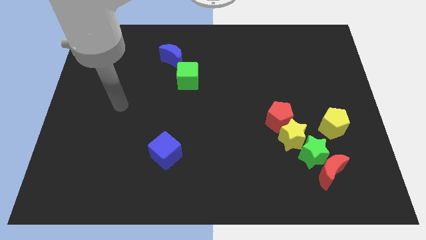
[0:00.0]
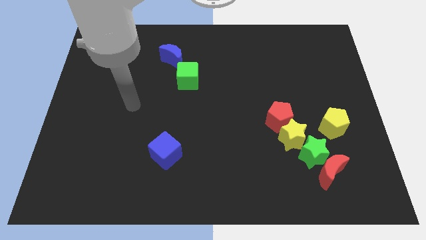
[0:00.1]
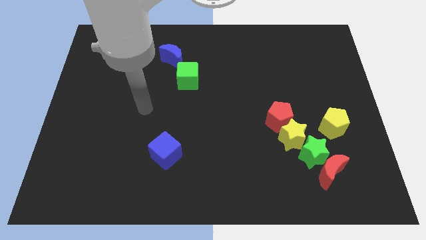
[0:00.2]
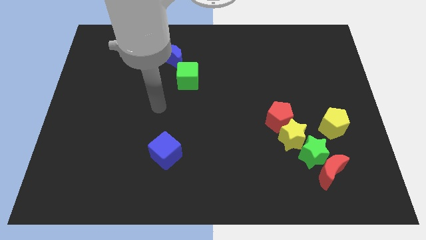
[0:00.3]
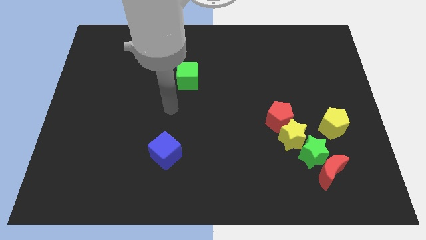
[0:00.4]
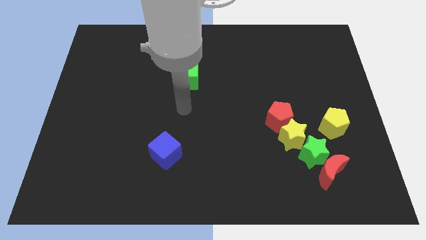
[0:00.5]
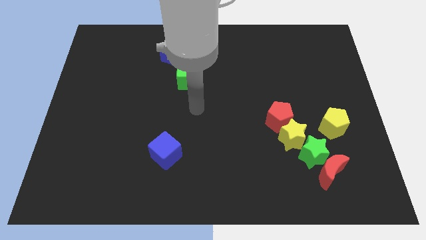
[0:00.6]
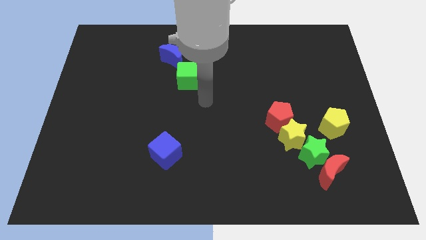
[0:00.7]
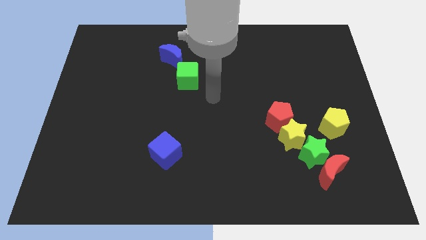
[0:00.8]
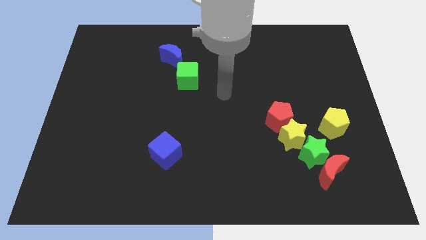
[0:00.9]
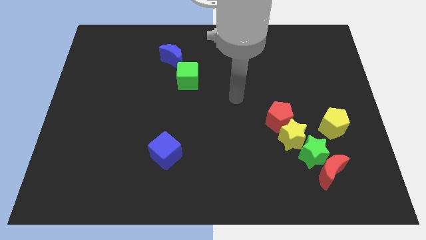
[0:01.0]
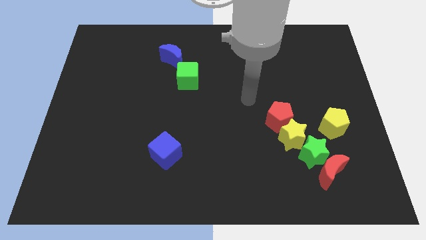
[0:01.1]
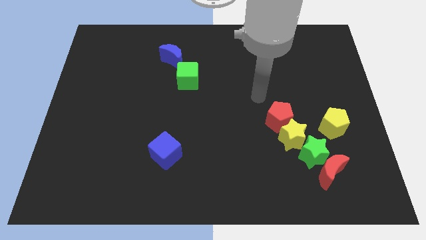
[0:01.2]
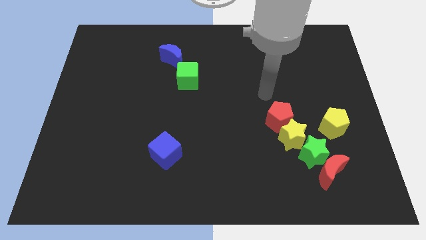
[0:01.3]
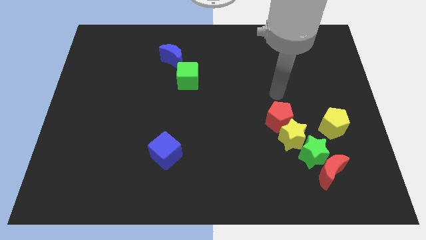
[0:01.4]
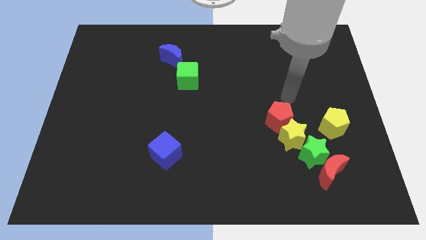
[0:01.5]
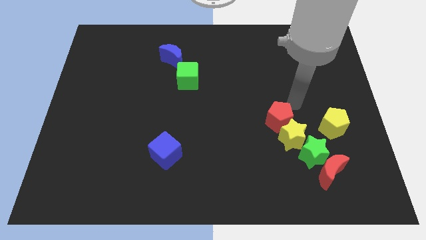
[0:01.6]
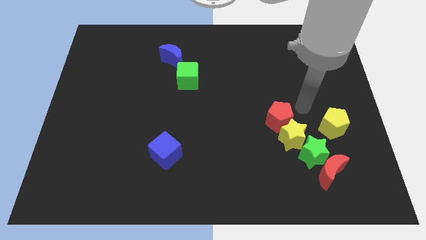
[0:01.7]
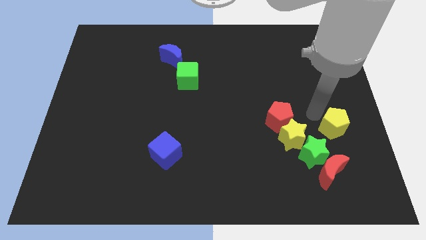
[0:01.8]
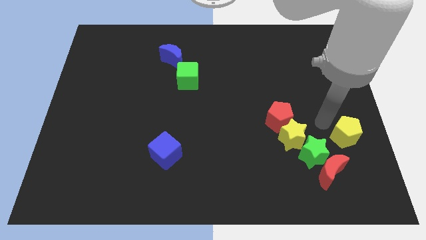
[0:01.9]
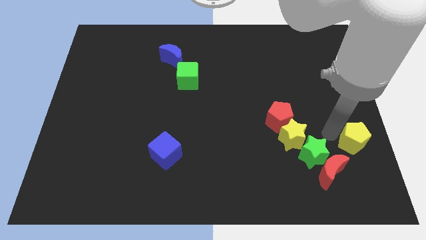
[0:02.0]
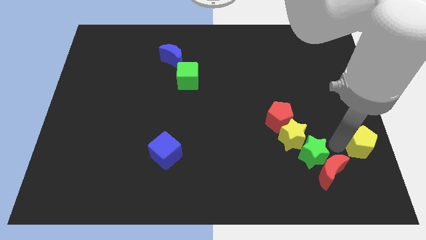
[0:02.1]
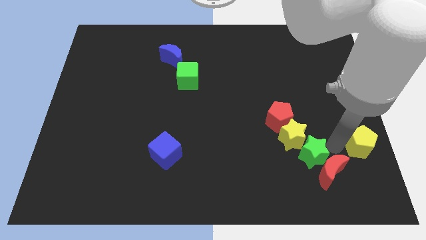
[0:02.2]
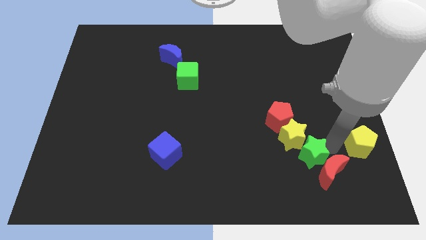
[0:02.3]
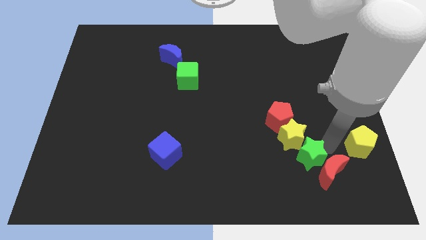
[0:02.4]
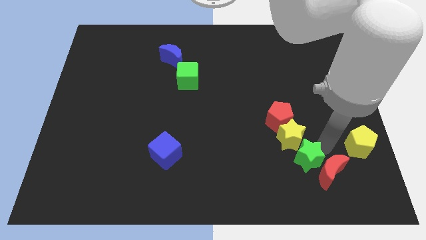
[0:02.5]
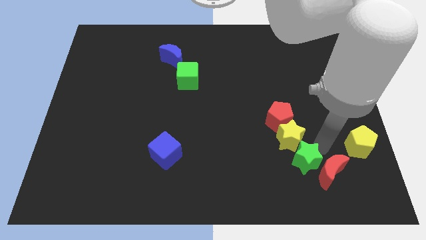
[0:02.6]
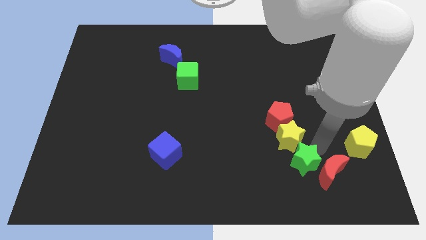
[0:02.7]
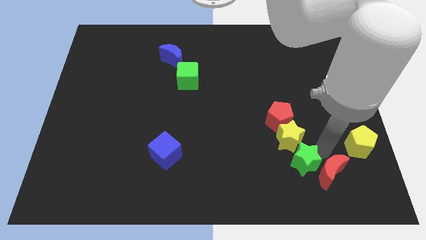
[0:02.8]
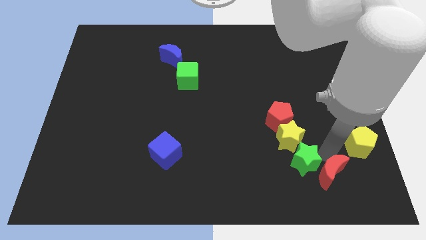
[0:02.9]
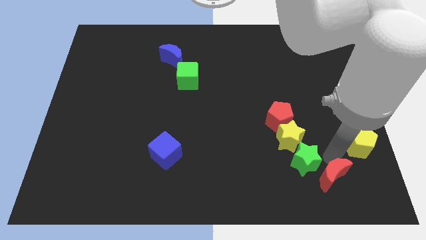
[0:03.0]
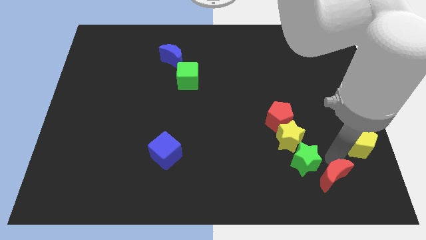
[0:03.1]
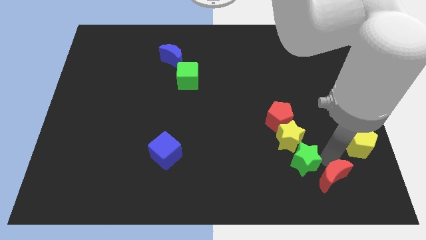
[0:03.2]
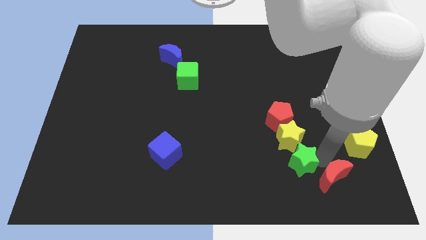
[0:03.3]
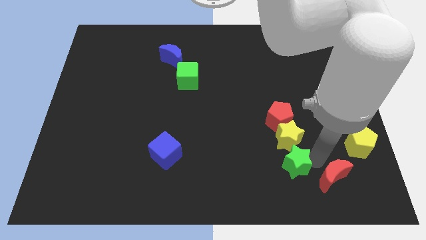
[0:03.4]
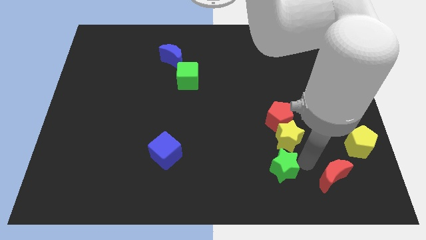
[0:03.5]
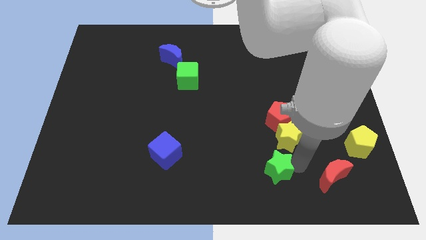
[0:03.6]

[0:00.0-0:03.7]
slightly push the green star left

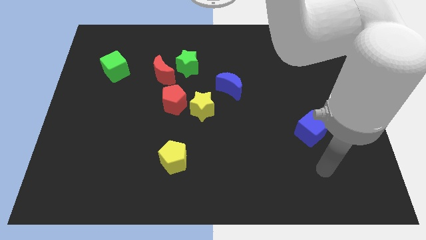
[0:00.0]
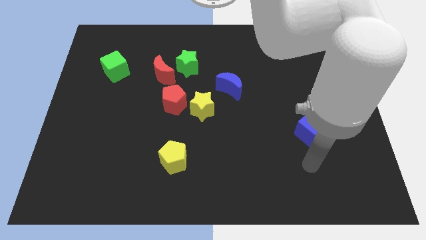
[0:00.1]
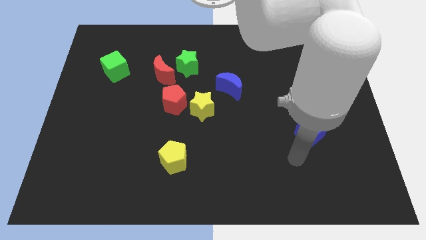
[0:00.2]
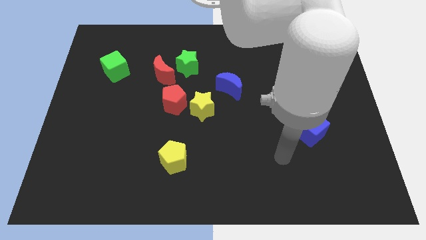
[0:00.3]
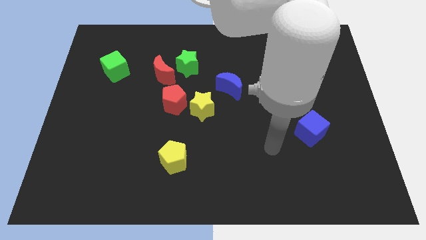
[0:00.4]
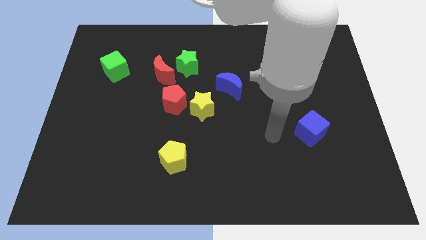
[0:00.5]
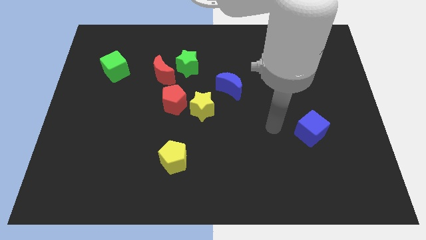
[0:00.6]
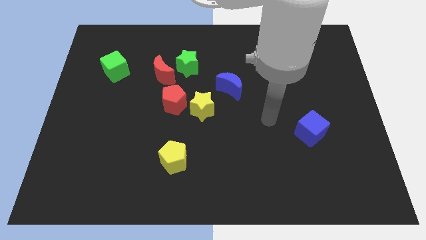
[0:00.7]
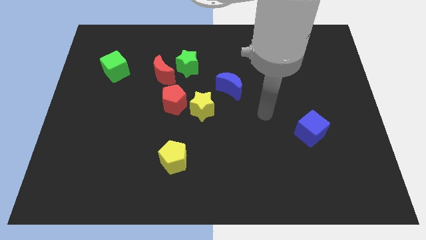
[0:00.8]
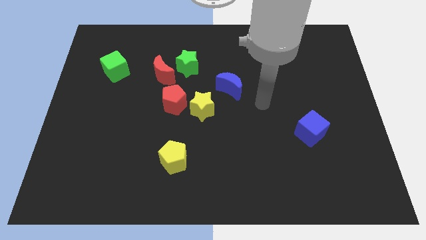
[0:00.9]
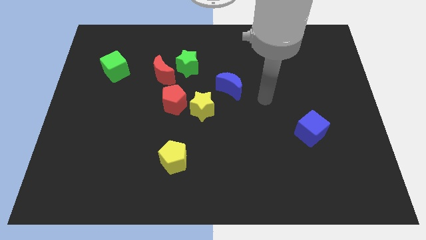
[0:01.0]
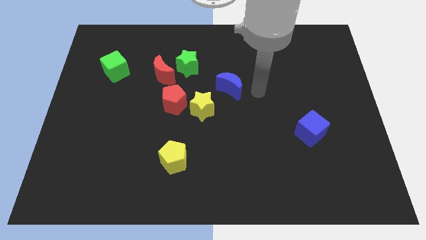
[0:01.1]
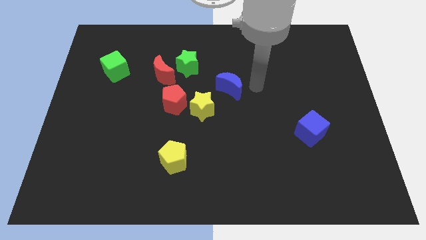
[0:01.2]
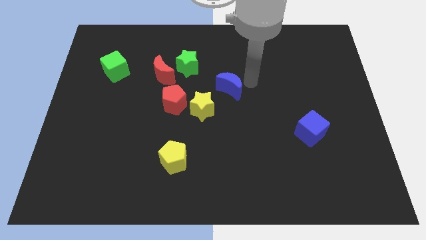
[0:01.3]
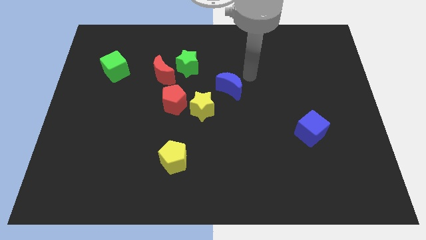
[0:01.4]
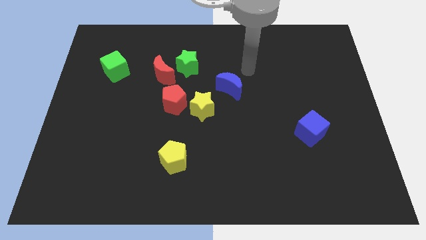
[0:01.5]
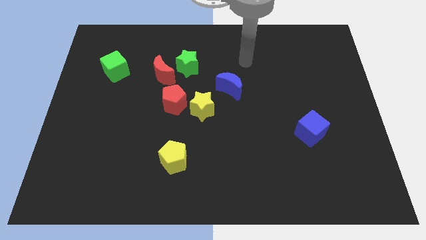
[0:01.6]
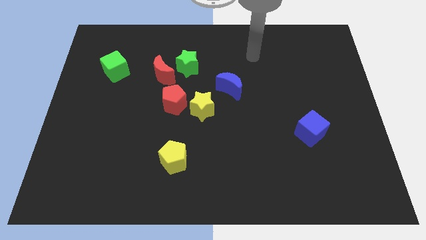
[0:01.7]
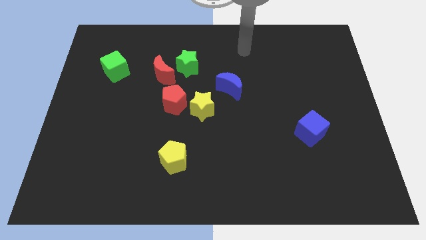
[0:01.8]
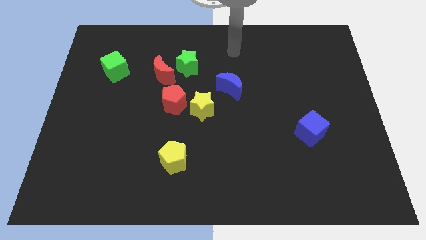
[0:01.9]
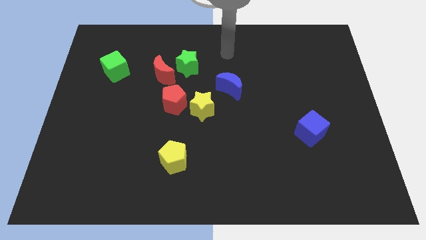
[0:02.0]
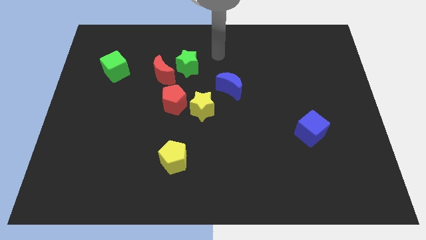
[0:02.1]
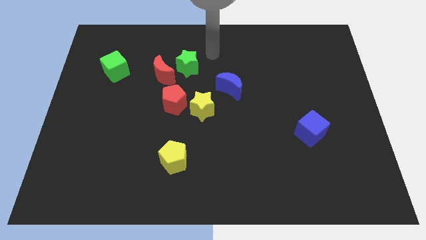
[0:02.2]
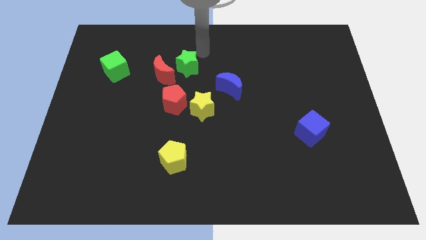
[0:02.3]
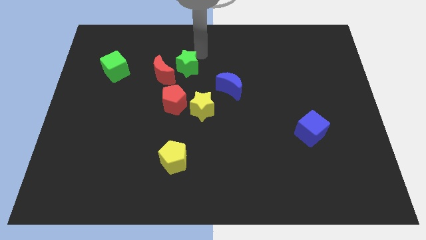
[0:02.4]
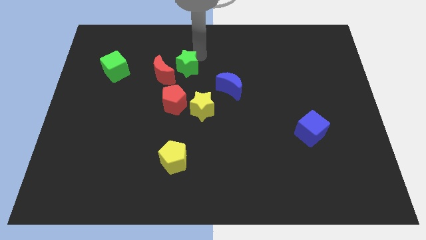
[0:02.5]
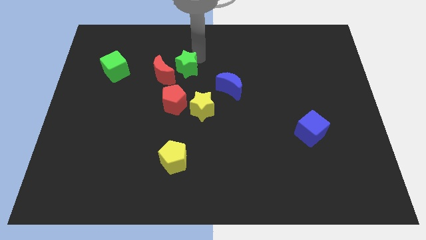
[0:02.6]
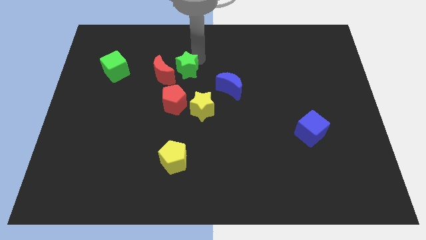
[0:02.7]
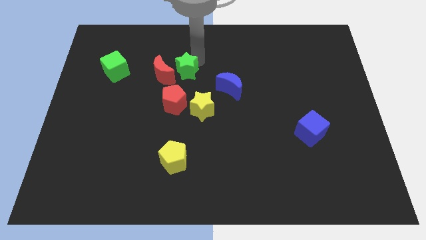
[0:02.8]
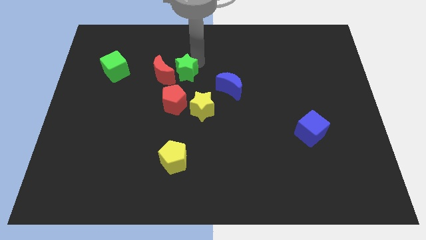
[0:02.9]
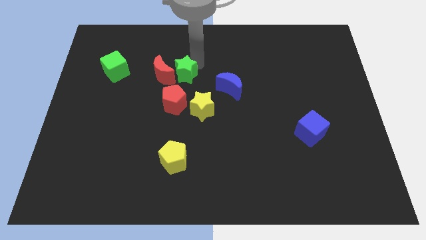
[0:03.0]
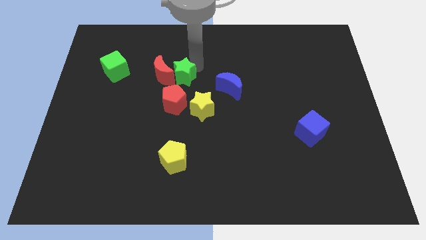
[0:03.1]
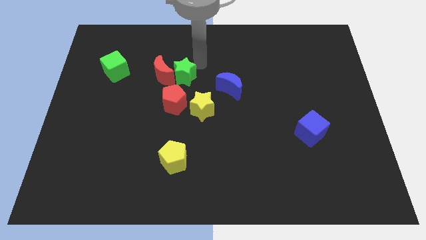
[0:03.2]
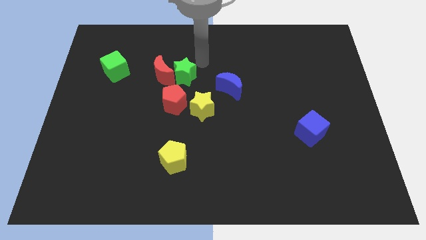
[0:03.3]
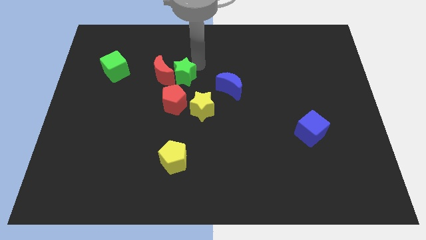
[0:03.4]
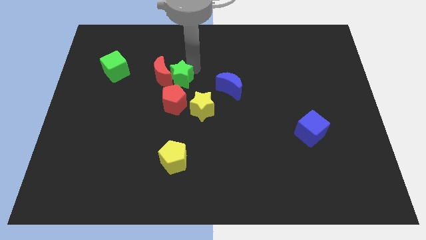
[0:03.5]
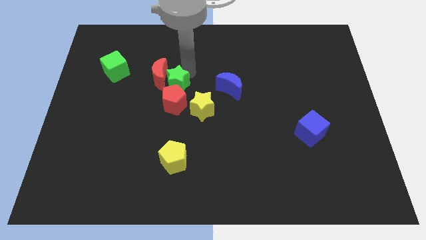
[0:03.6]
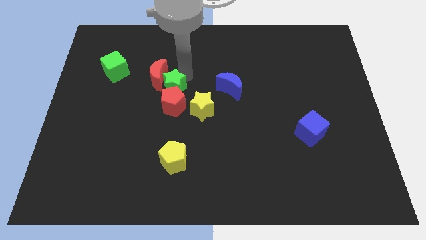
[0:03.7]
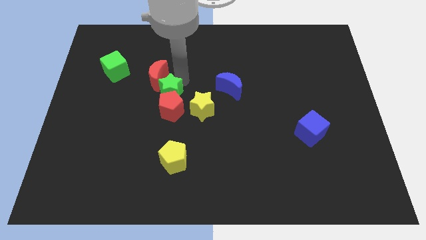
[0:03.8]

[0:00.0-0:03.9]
slightly push the green star downwards

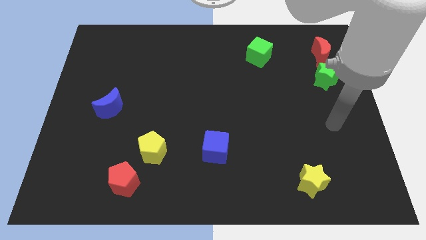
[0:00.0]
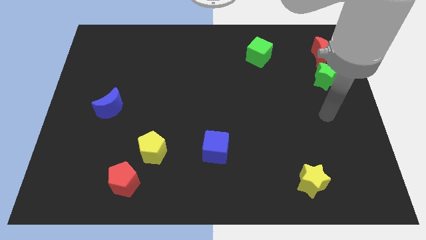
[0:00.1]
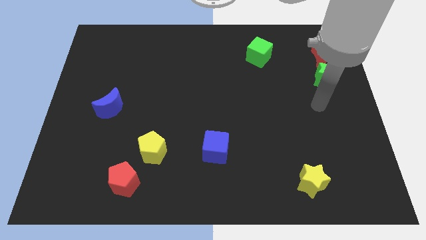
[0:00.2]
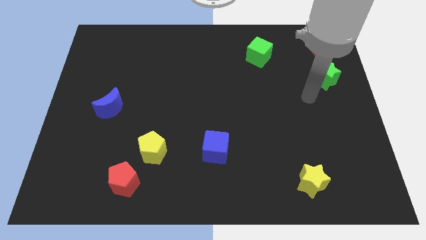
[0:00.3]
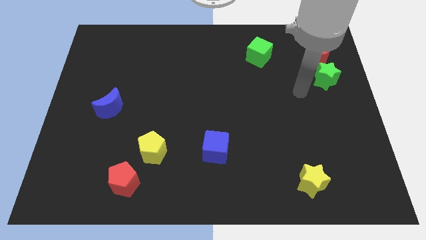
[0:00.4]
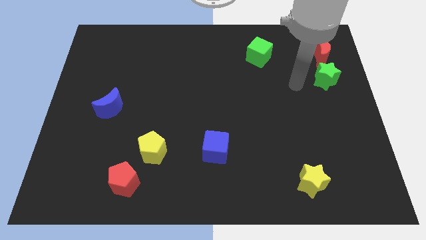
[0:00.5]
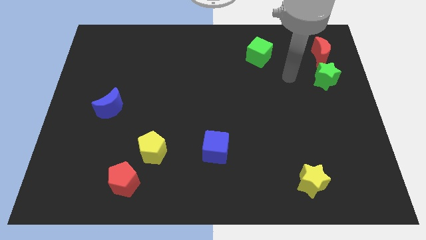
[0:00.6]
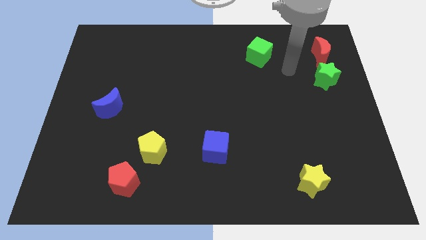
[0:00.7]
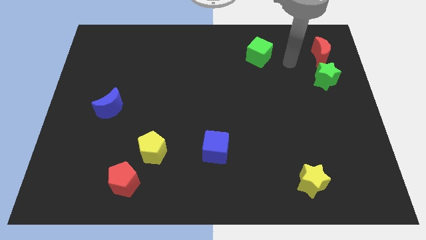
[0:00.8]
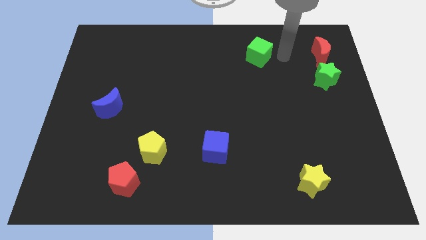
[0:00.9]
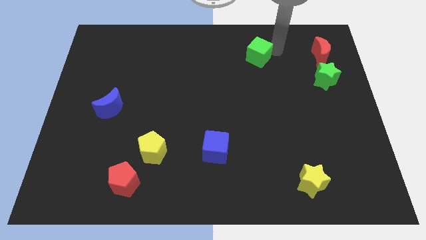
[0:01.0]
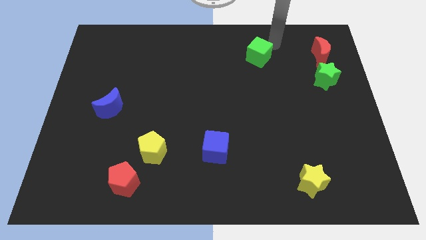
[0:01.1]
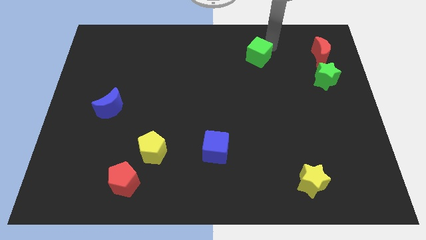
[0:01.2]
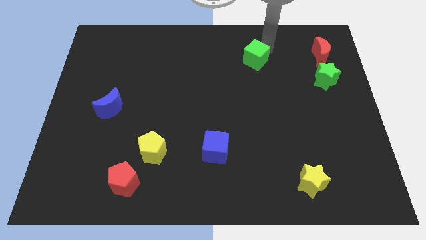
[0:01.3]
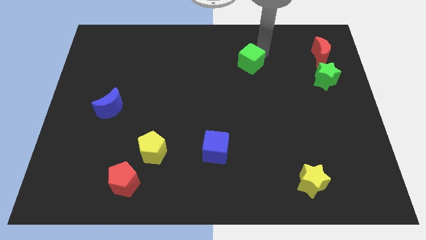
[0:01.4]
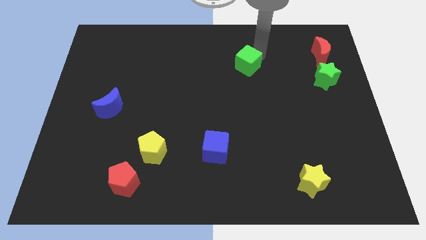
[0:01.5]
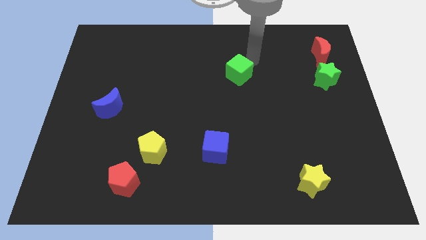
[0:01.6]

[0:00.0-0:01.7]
slightly slide the green cube diagonally down and to the left
